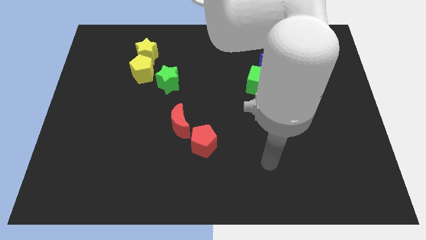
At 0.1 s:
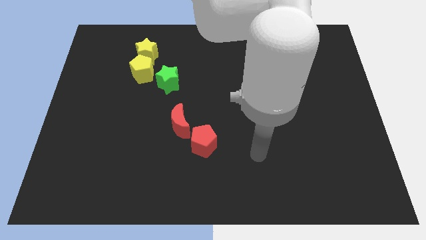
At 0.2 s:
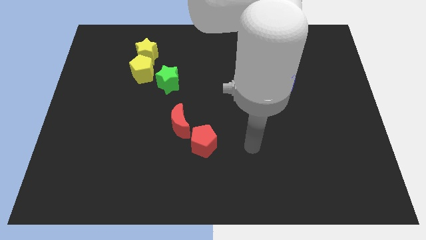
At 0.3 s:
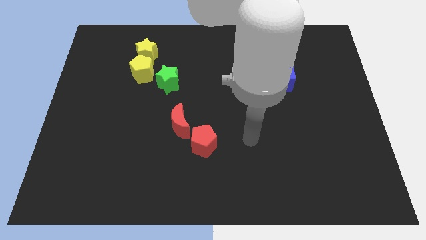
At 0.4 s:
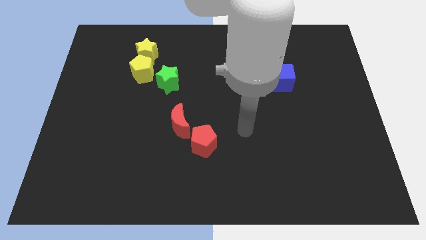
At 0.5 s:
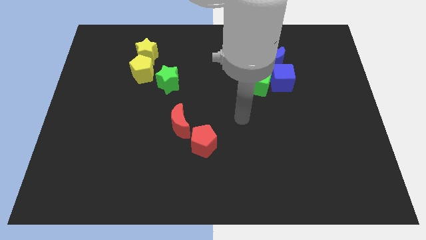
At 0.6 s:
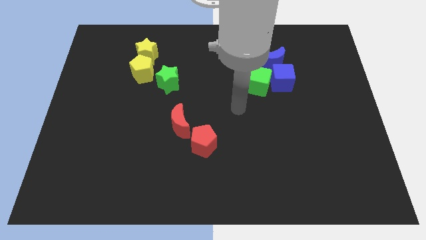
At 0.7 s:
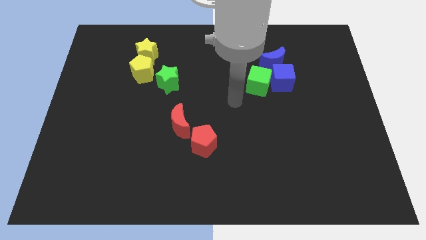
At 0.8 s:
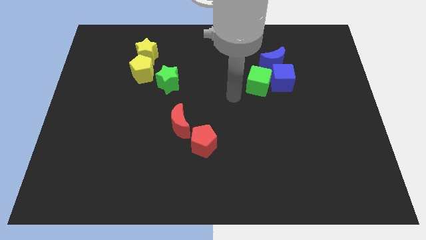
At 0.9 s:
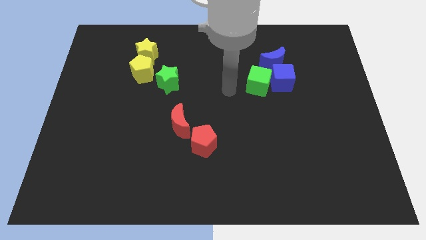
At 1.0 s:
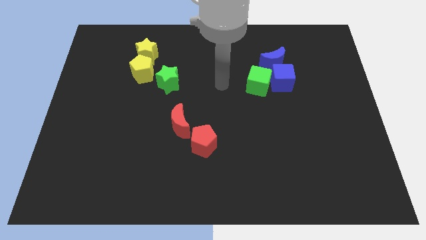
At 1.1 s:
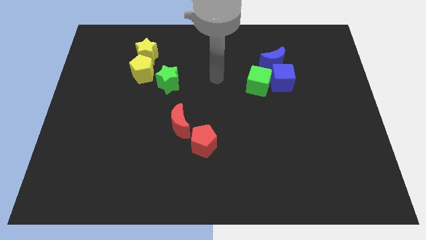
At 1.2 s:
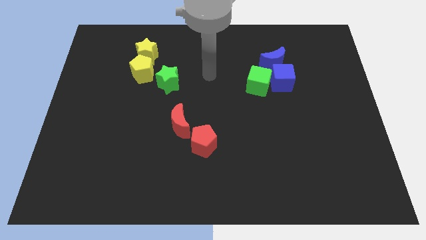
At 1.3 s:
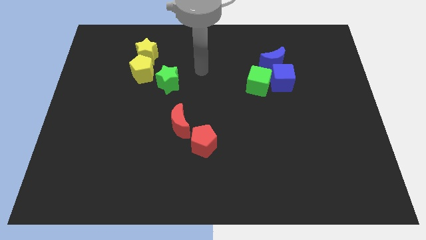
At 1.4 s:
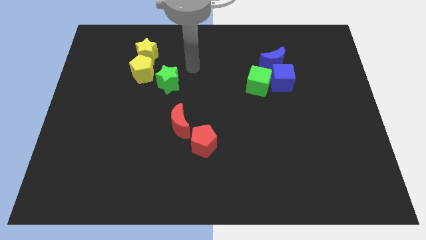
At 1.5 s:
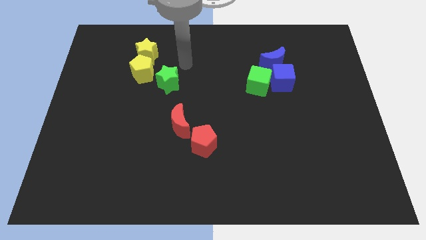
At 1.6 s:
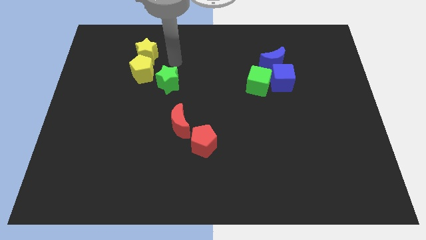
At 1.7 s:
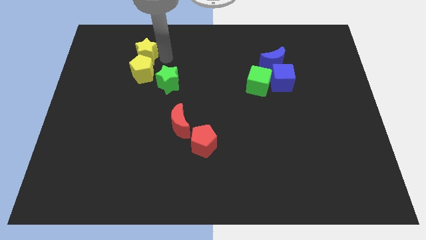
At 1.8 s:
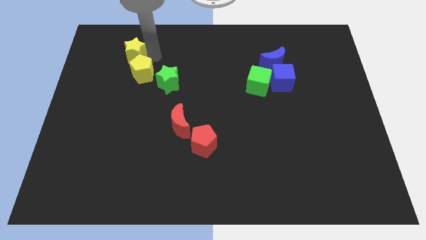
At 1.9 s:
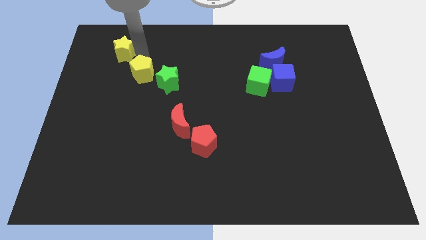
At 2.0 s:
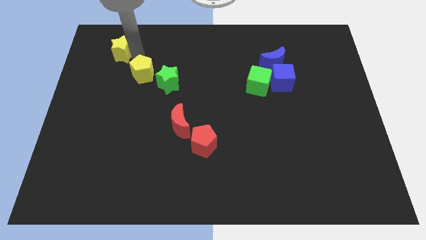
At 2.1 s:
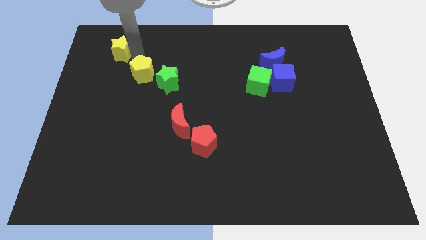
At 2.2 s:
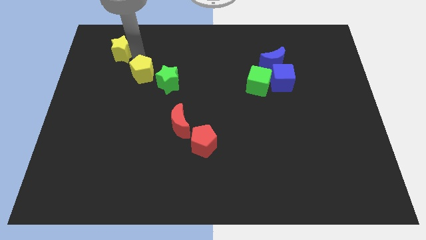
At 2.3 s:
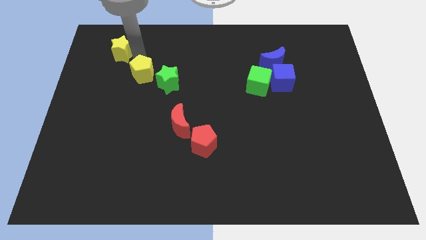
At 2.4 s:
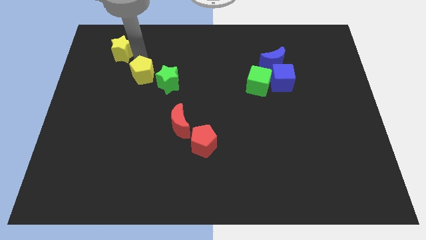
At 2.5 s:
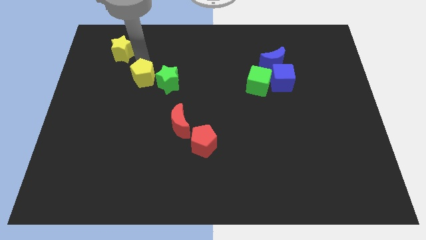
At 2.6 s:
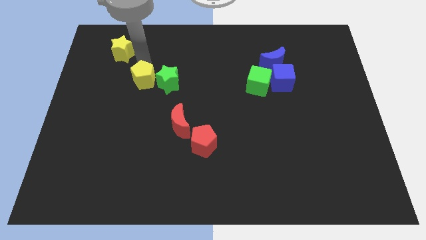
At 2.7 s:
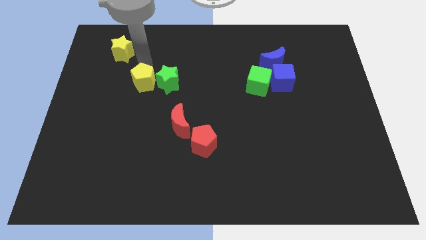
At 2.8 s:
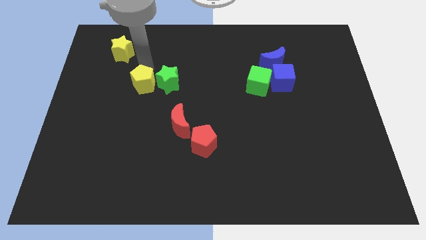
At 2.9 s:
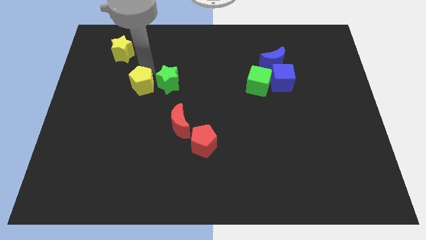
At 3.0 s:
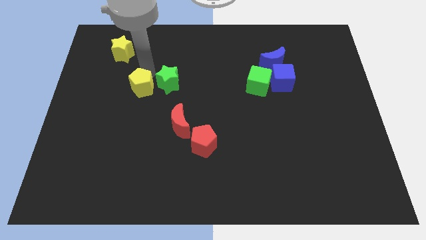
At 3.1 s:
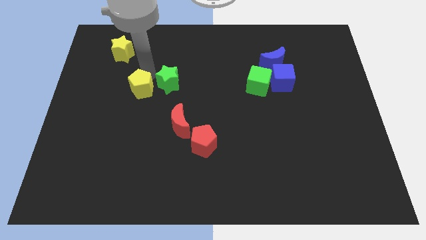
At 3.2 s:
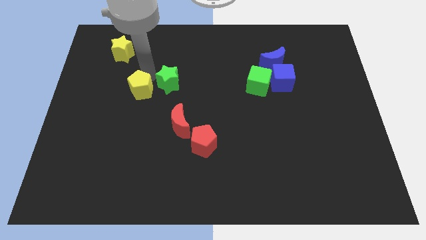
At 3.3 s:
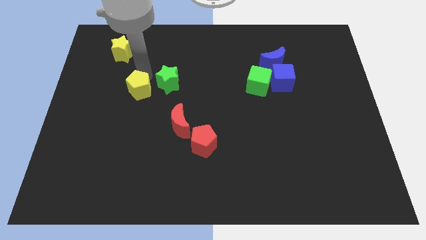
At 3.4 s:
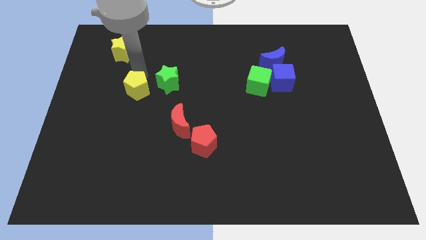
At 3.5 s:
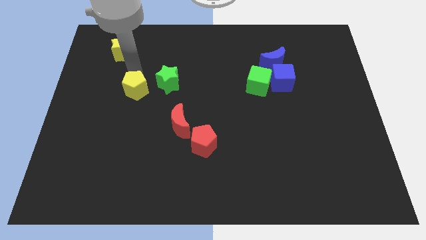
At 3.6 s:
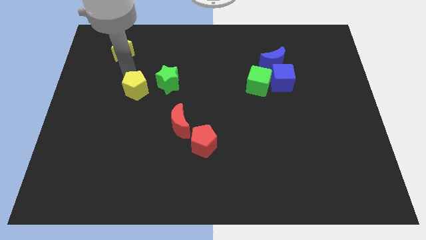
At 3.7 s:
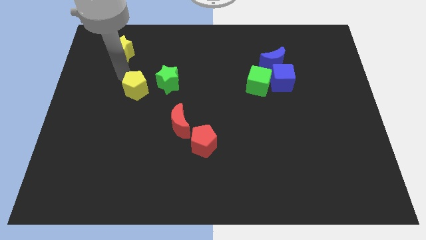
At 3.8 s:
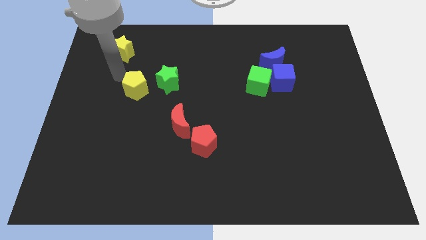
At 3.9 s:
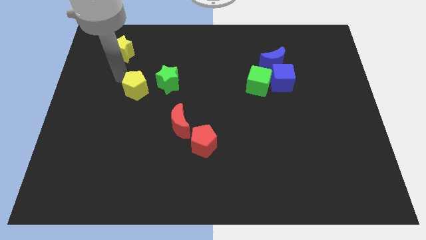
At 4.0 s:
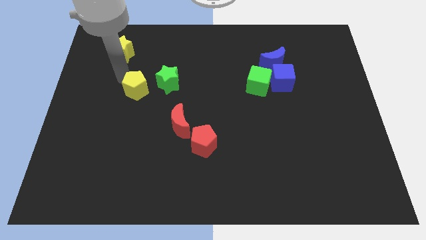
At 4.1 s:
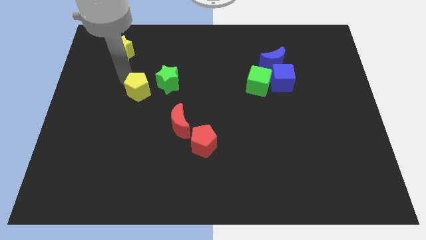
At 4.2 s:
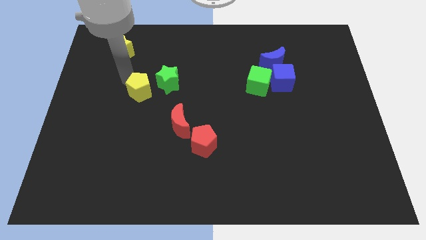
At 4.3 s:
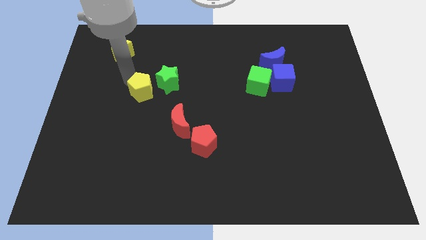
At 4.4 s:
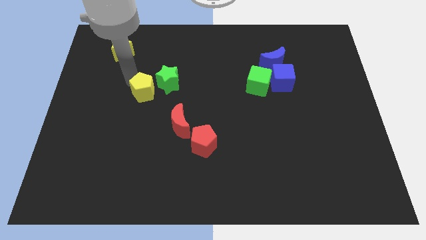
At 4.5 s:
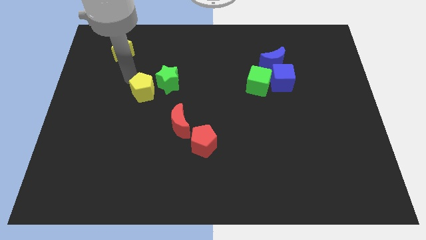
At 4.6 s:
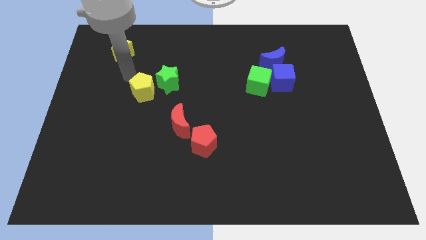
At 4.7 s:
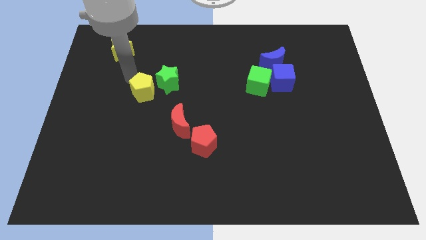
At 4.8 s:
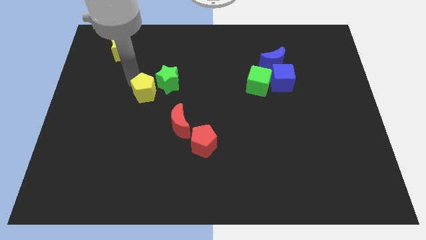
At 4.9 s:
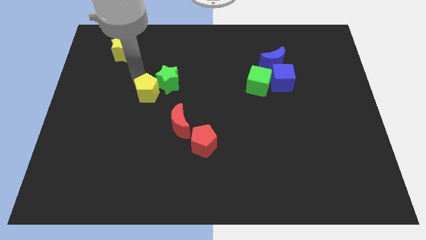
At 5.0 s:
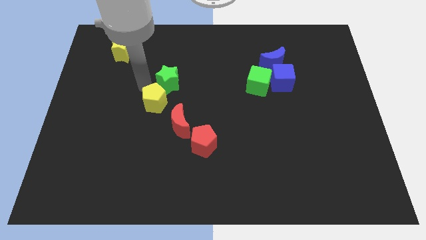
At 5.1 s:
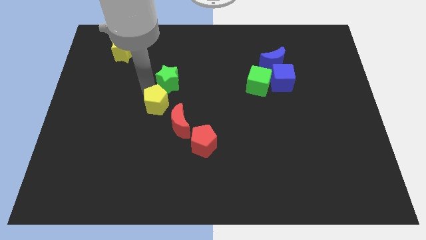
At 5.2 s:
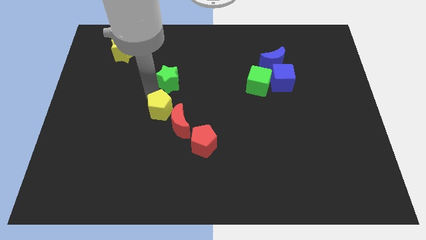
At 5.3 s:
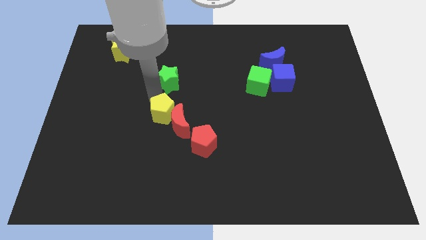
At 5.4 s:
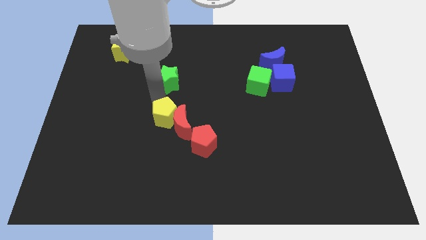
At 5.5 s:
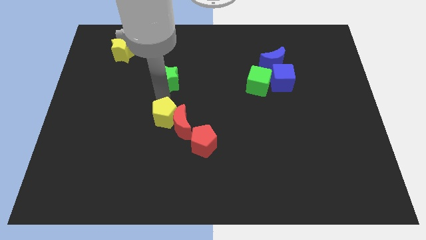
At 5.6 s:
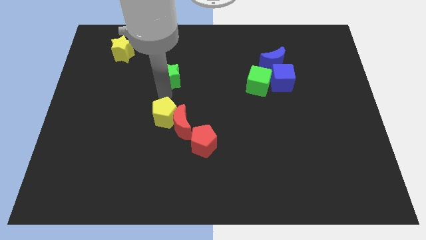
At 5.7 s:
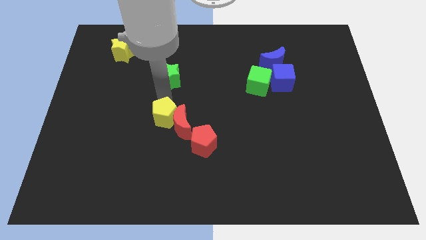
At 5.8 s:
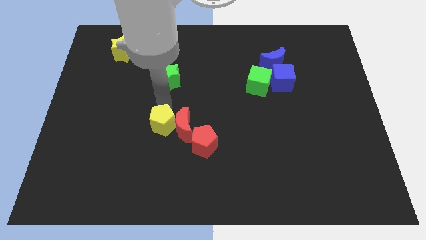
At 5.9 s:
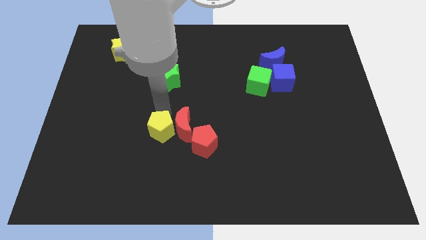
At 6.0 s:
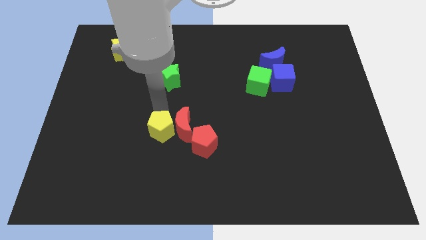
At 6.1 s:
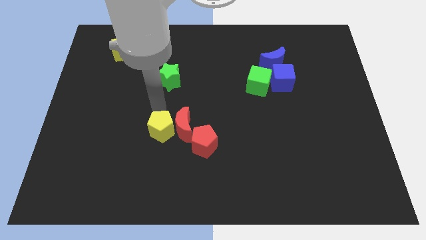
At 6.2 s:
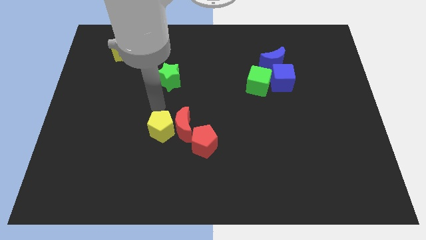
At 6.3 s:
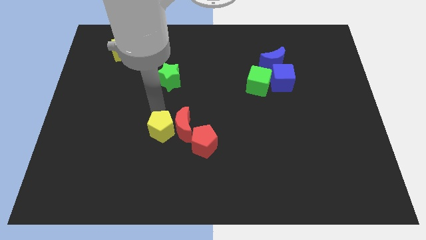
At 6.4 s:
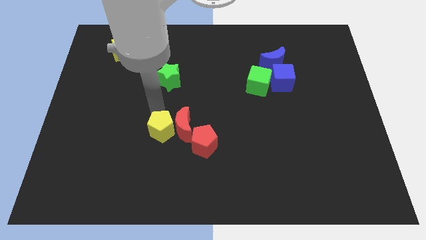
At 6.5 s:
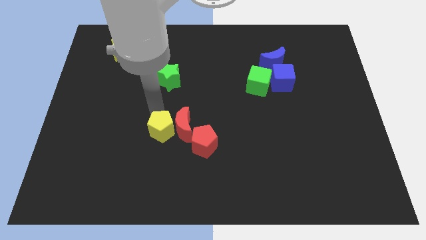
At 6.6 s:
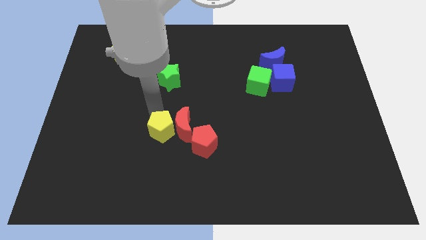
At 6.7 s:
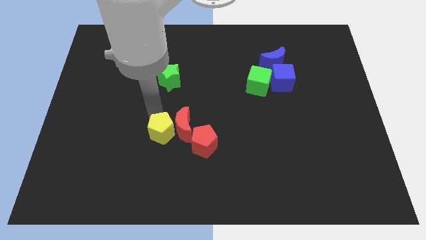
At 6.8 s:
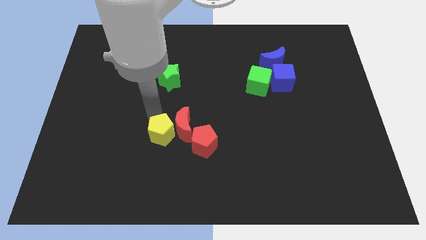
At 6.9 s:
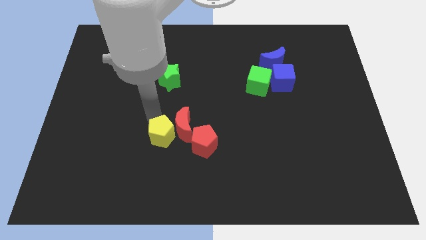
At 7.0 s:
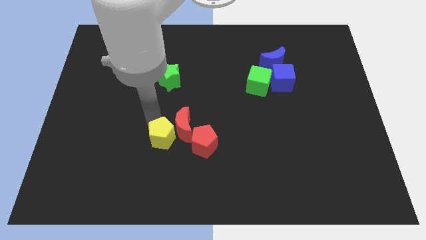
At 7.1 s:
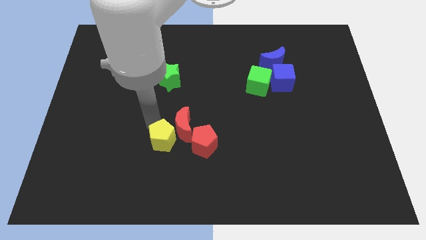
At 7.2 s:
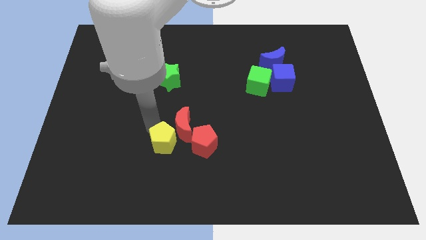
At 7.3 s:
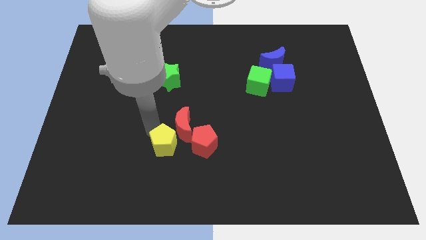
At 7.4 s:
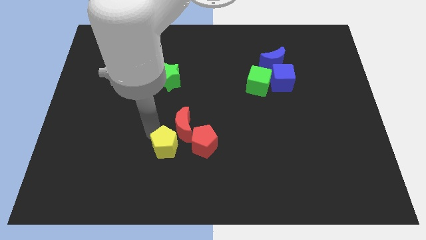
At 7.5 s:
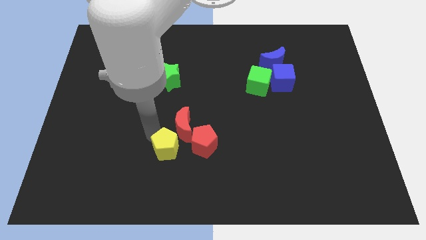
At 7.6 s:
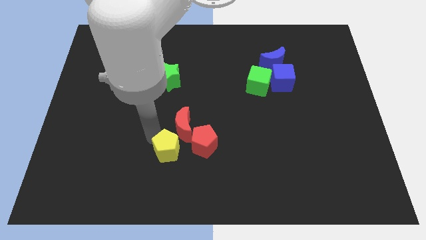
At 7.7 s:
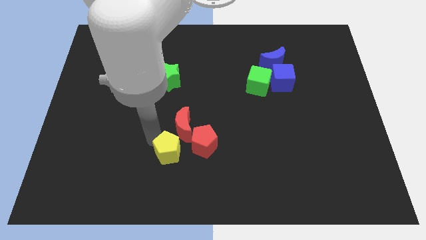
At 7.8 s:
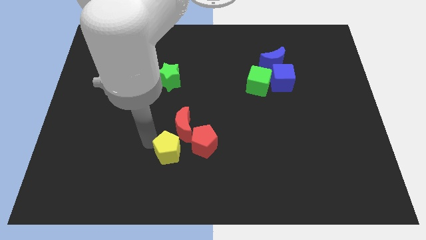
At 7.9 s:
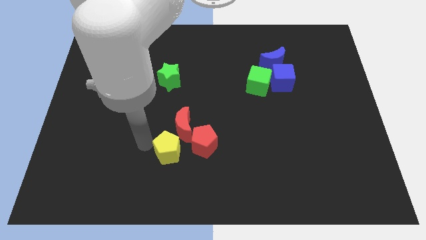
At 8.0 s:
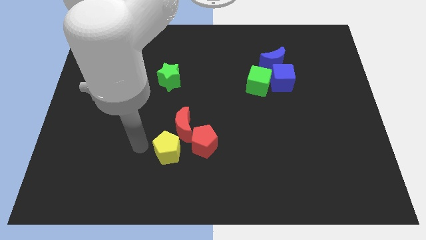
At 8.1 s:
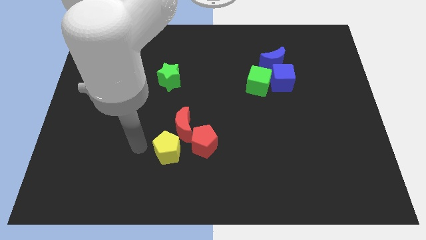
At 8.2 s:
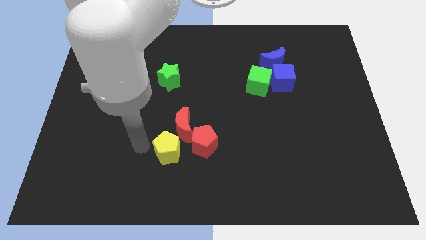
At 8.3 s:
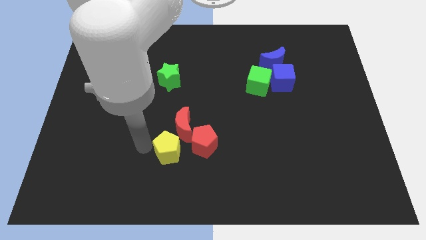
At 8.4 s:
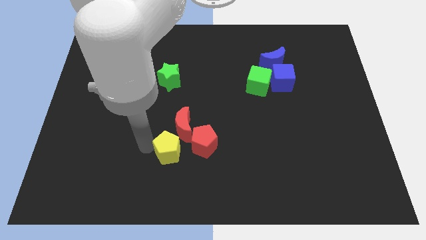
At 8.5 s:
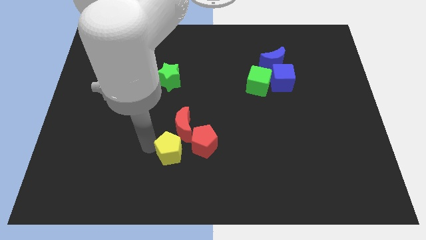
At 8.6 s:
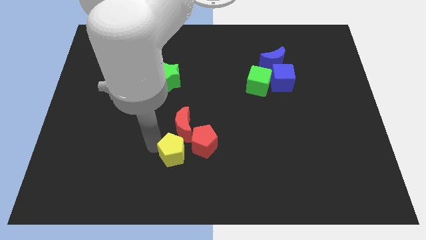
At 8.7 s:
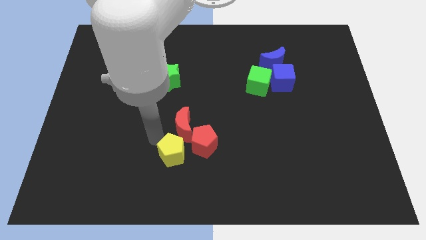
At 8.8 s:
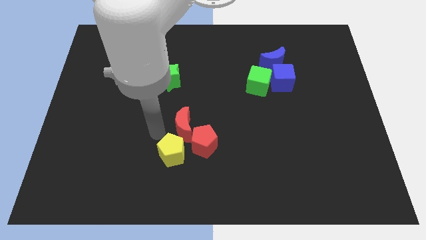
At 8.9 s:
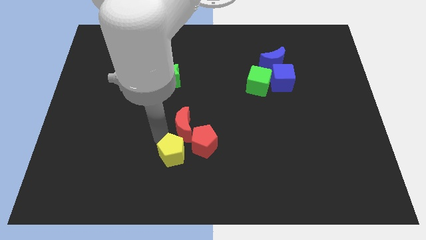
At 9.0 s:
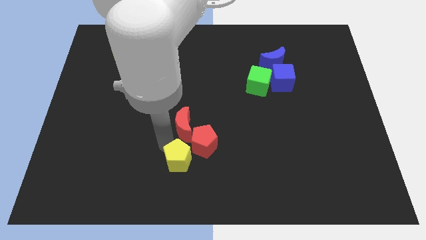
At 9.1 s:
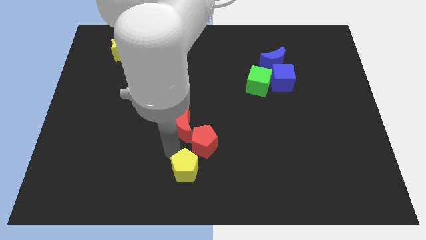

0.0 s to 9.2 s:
put the yellow pentagon to the bottom side
